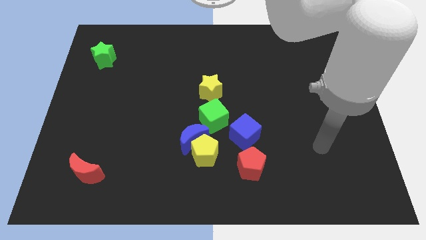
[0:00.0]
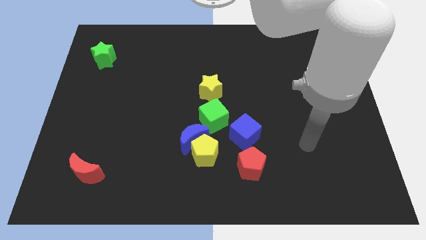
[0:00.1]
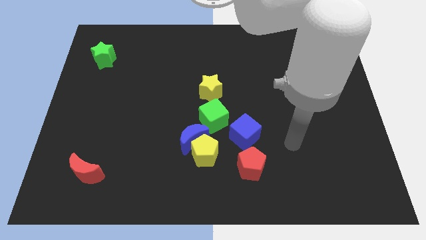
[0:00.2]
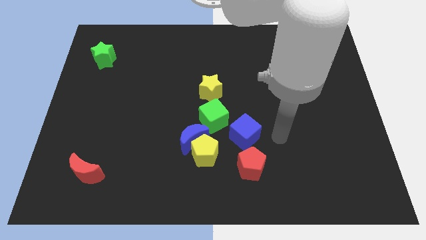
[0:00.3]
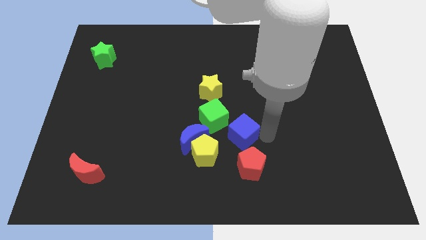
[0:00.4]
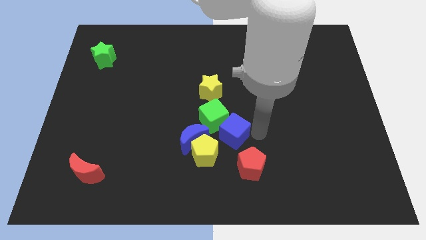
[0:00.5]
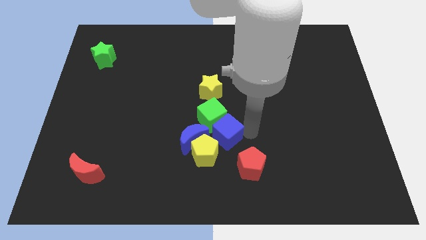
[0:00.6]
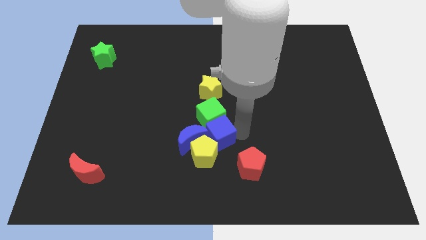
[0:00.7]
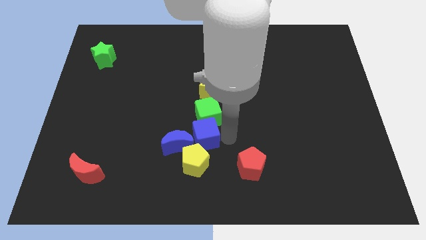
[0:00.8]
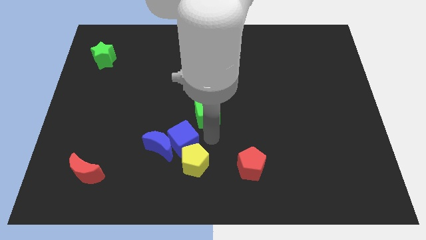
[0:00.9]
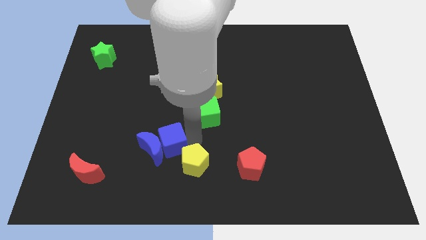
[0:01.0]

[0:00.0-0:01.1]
separate the blue moon from the yellow pentagon and green cube

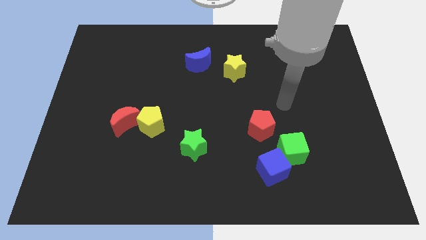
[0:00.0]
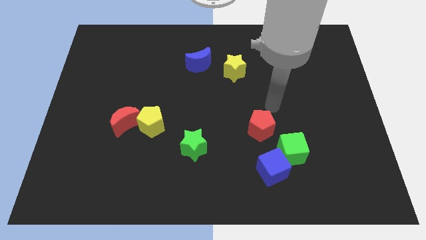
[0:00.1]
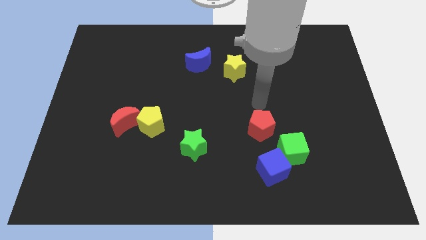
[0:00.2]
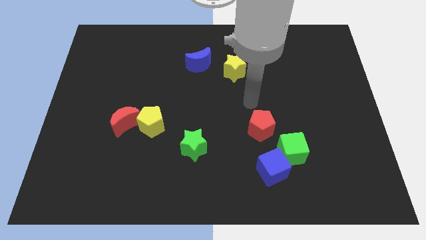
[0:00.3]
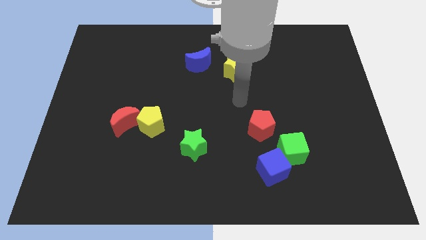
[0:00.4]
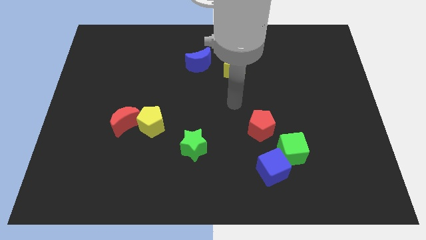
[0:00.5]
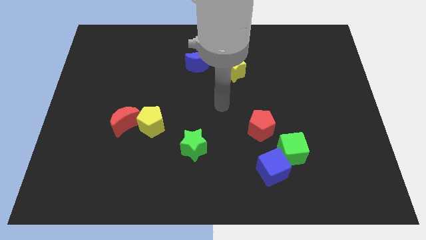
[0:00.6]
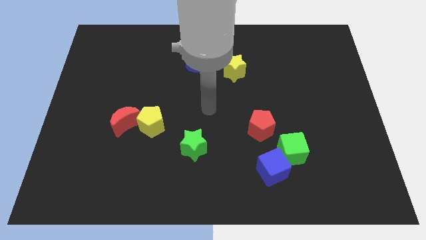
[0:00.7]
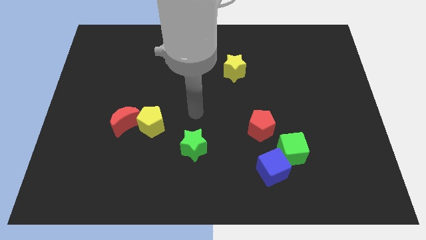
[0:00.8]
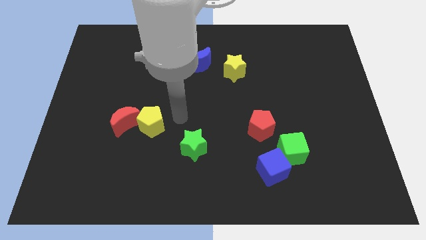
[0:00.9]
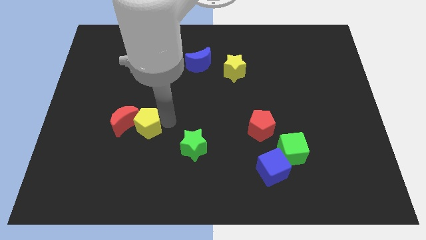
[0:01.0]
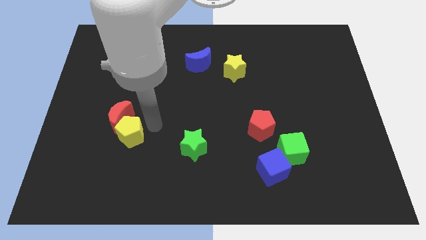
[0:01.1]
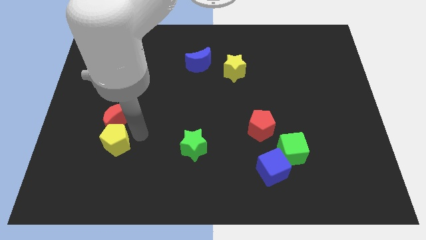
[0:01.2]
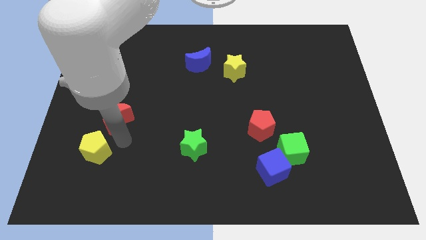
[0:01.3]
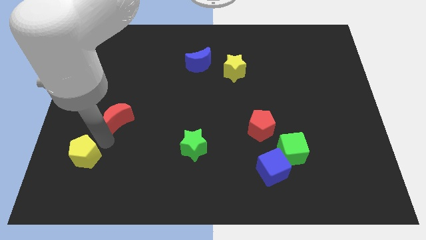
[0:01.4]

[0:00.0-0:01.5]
pull the red moon apart from the yellow pentagon

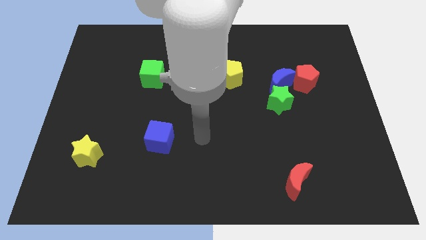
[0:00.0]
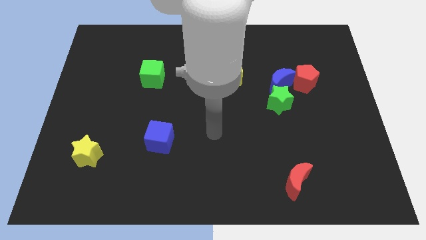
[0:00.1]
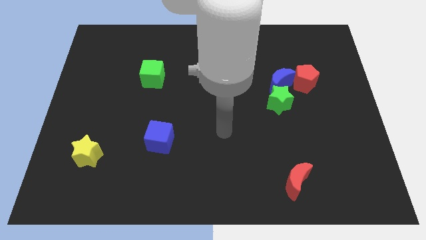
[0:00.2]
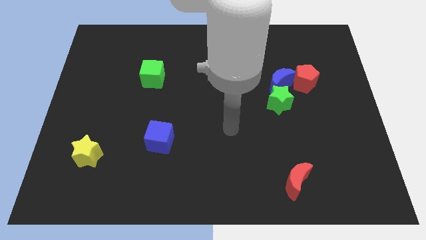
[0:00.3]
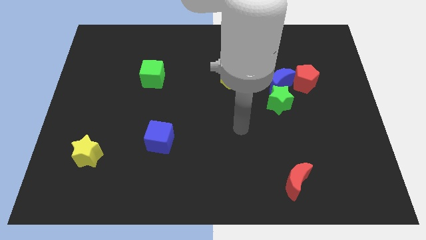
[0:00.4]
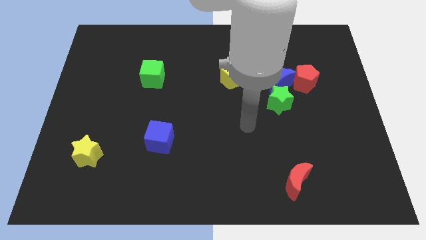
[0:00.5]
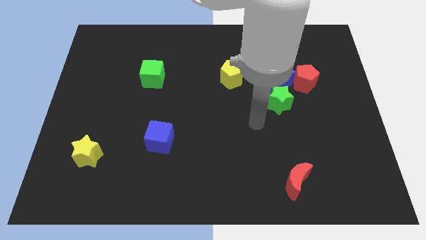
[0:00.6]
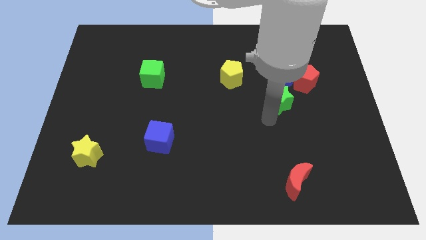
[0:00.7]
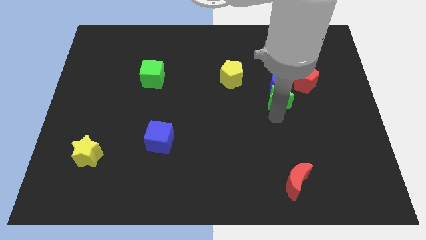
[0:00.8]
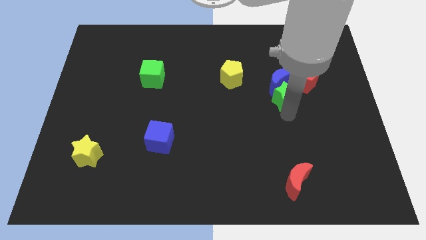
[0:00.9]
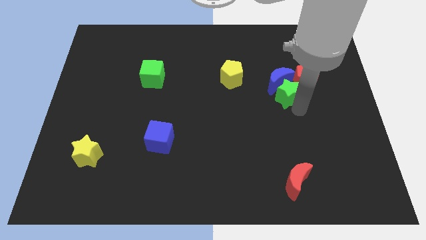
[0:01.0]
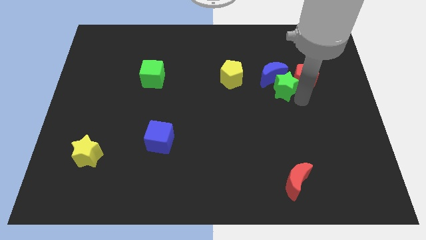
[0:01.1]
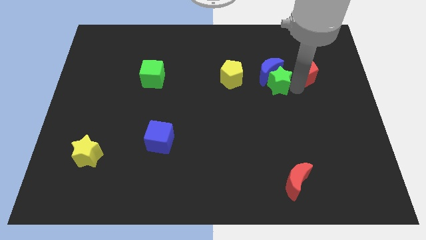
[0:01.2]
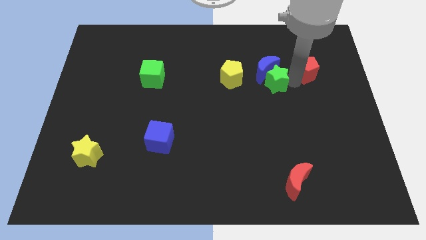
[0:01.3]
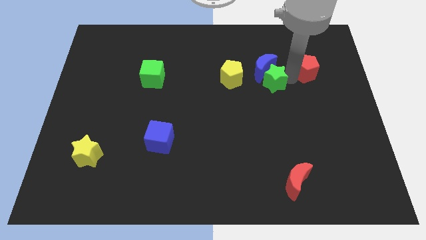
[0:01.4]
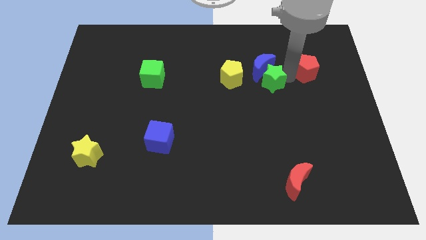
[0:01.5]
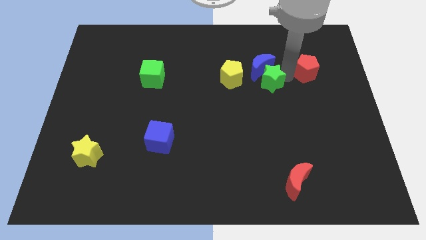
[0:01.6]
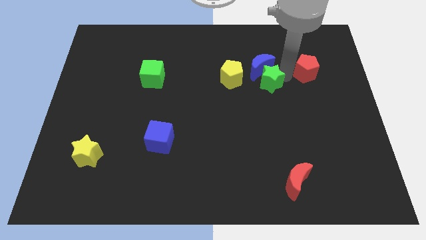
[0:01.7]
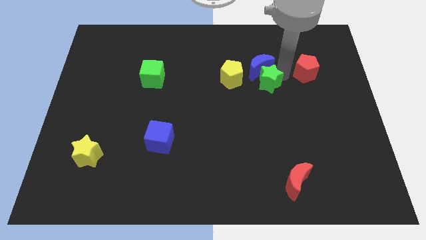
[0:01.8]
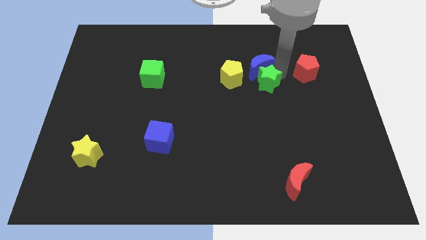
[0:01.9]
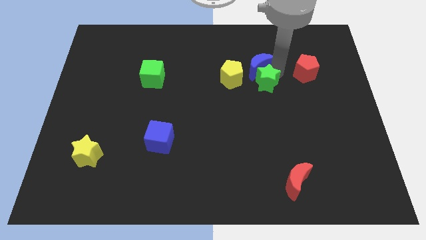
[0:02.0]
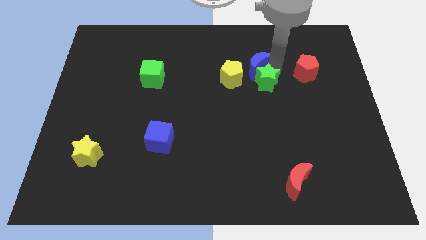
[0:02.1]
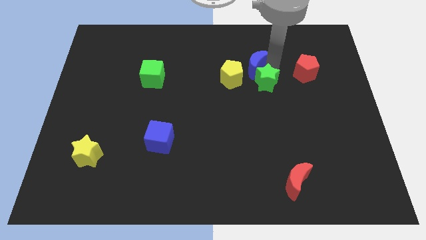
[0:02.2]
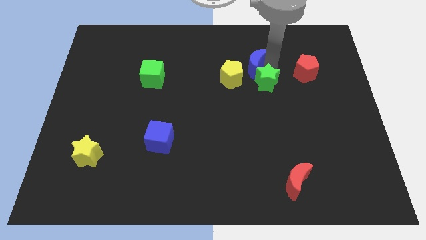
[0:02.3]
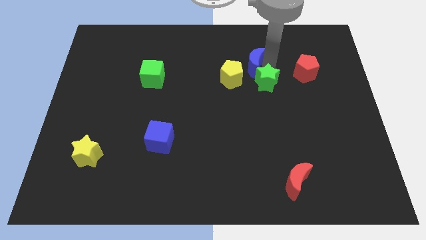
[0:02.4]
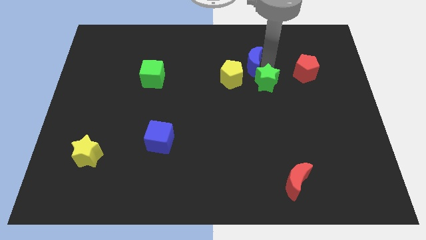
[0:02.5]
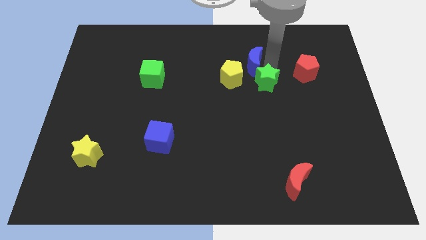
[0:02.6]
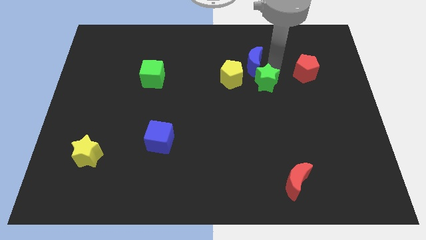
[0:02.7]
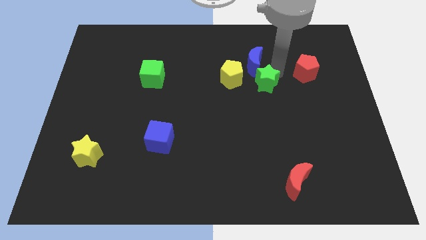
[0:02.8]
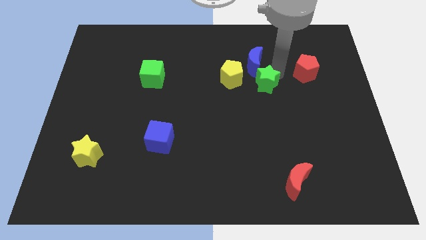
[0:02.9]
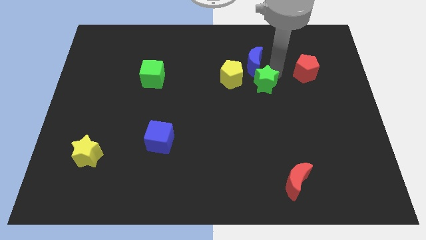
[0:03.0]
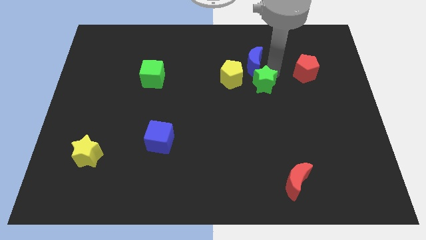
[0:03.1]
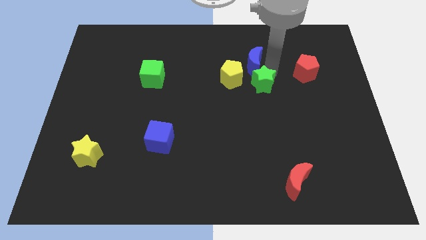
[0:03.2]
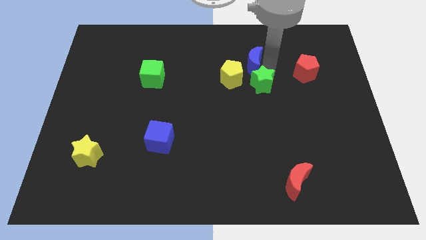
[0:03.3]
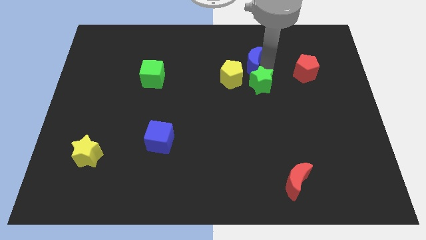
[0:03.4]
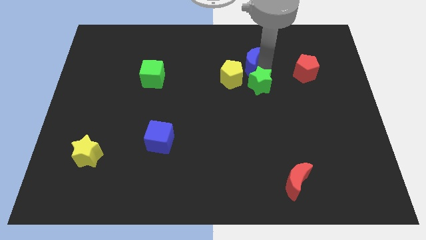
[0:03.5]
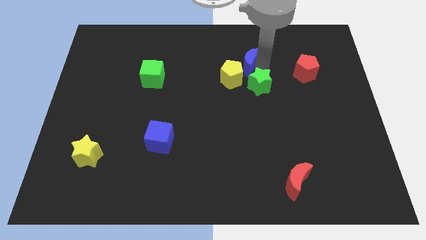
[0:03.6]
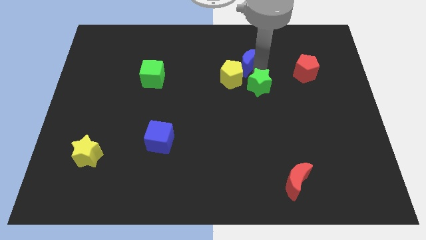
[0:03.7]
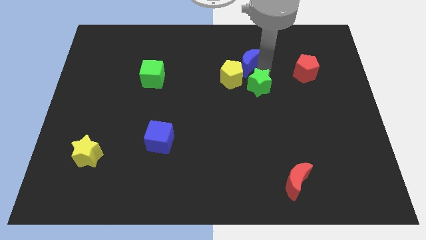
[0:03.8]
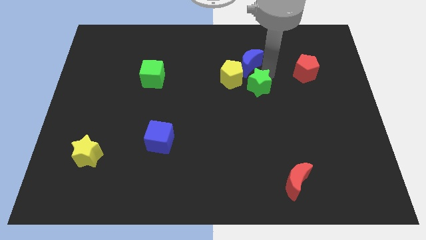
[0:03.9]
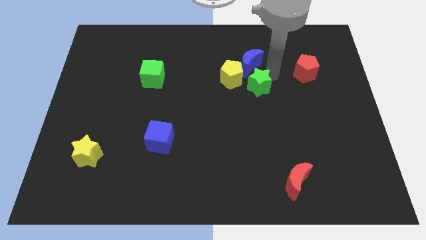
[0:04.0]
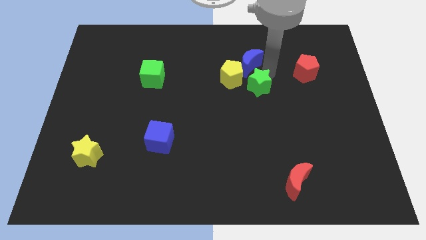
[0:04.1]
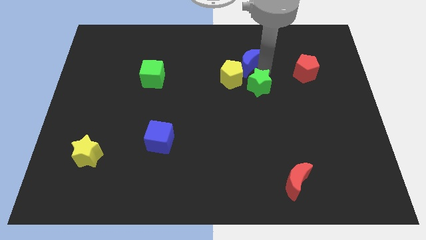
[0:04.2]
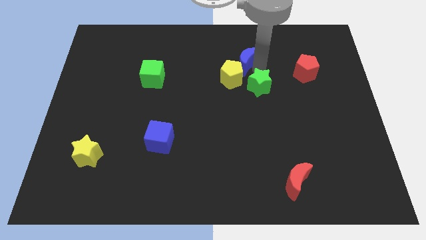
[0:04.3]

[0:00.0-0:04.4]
separate the blue moon from the green star and red pentagon

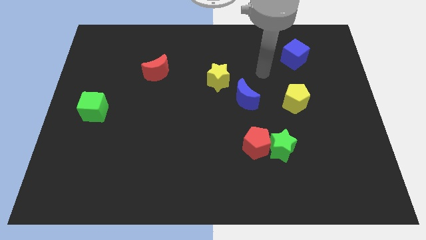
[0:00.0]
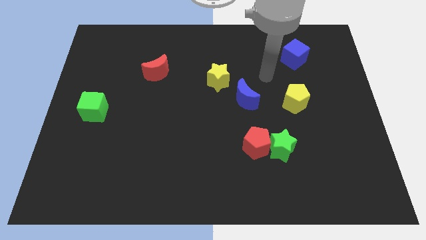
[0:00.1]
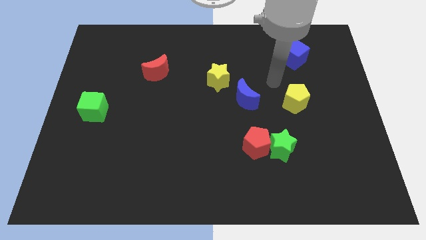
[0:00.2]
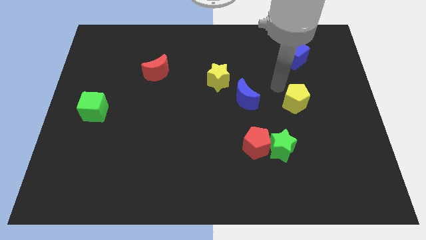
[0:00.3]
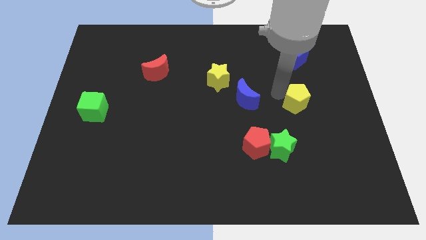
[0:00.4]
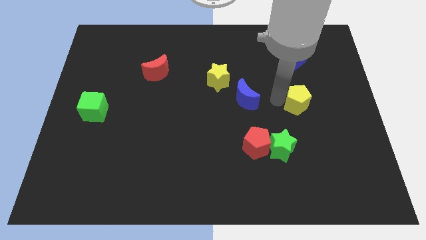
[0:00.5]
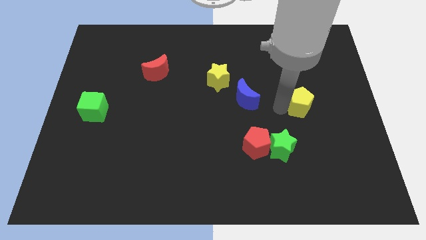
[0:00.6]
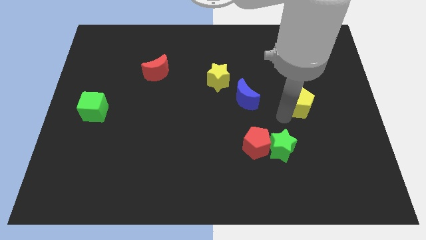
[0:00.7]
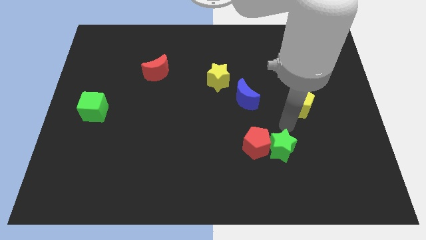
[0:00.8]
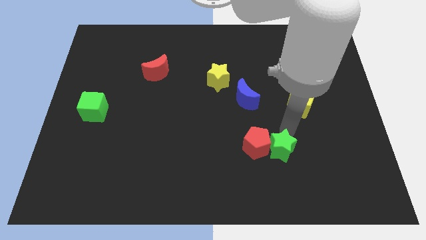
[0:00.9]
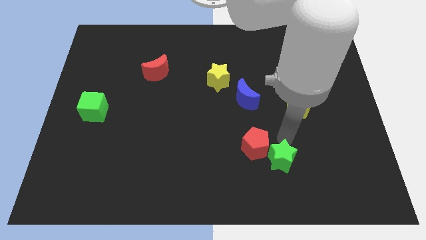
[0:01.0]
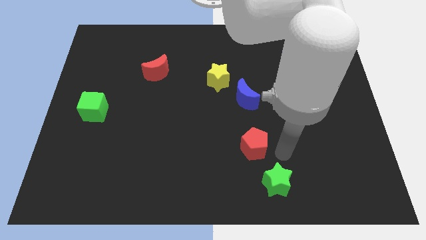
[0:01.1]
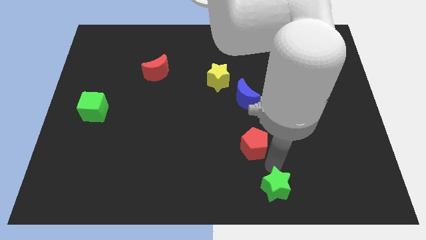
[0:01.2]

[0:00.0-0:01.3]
separate the red pentagon from the green star

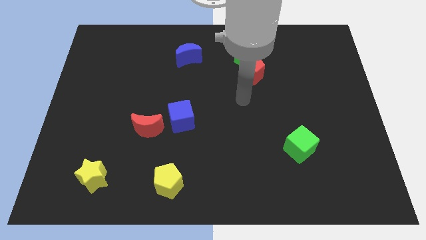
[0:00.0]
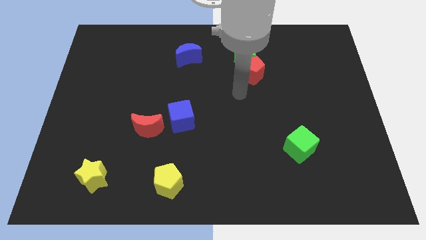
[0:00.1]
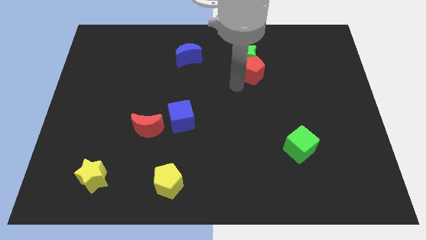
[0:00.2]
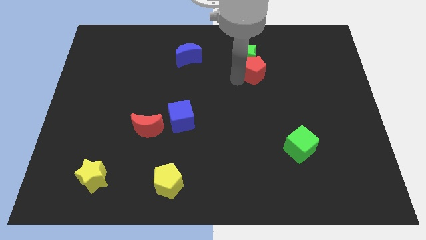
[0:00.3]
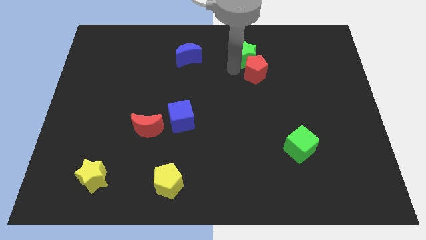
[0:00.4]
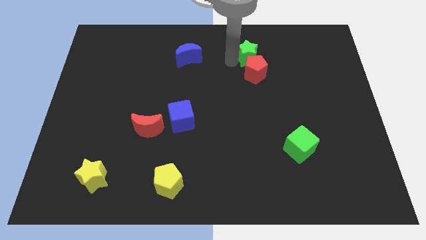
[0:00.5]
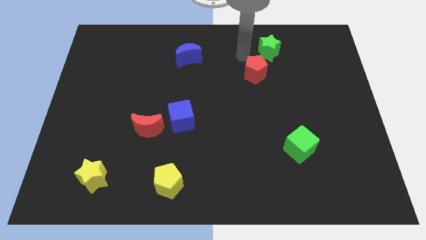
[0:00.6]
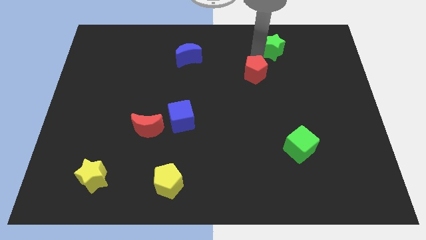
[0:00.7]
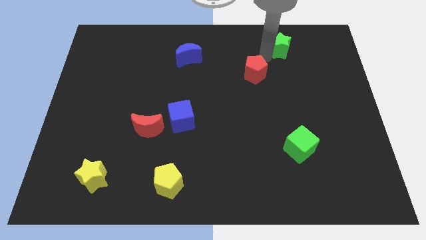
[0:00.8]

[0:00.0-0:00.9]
move the red pentagon away from the green star
